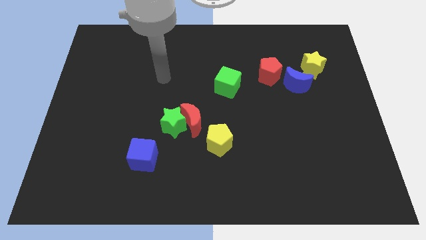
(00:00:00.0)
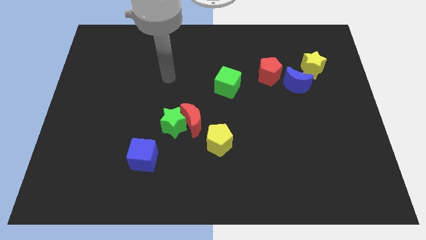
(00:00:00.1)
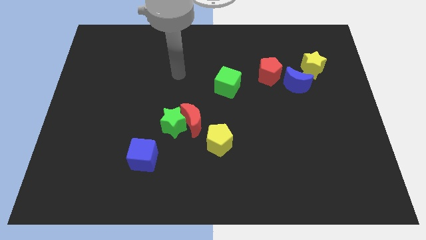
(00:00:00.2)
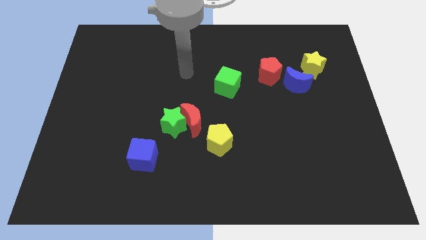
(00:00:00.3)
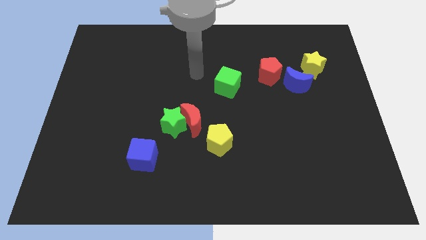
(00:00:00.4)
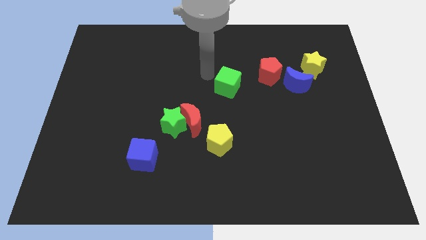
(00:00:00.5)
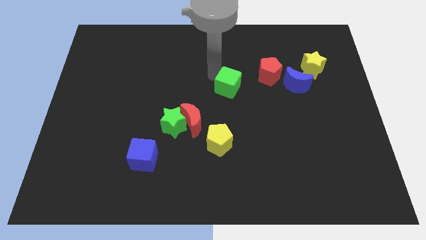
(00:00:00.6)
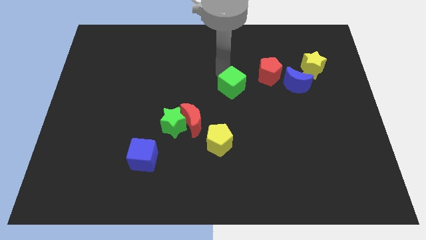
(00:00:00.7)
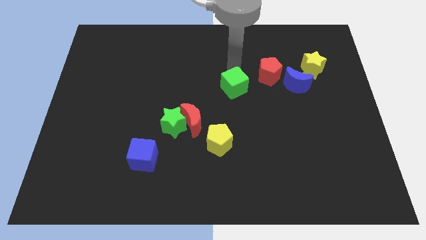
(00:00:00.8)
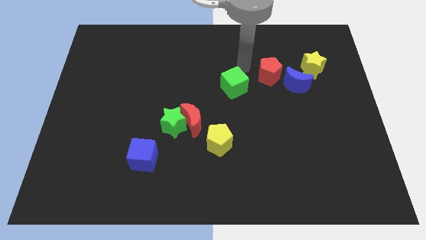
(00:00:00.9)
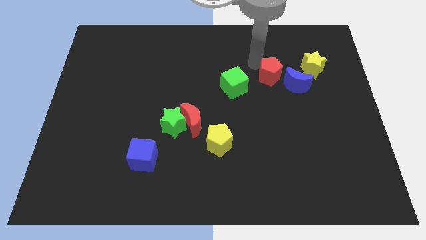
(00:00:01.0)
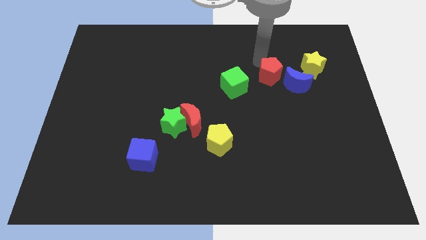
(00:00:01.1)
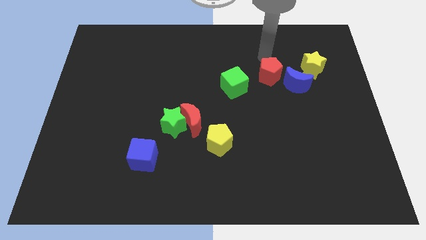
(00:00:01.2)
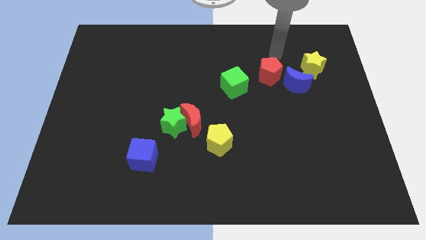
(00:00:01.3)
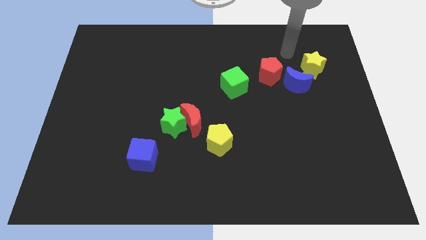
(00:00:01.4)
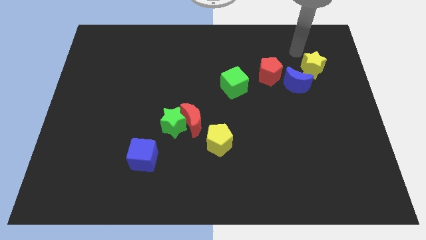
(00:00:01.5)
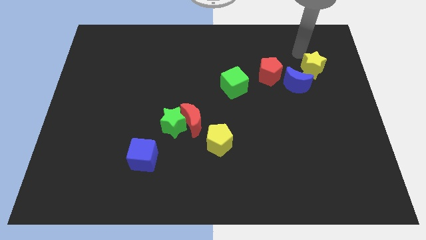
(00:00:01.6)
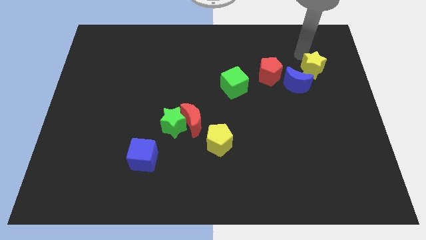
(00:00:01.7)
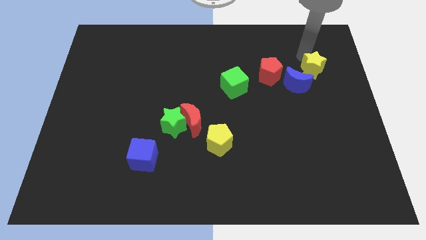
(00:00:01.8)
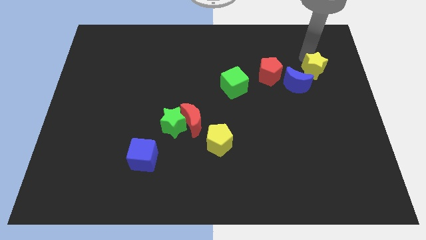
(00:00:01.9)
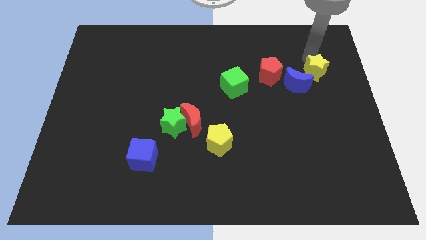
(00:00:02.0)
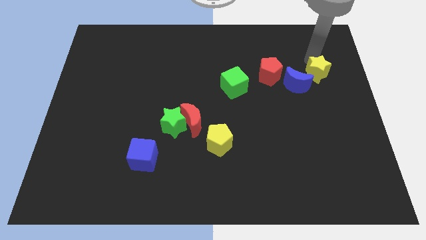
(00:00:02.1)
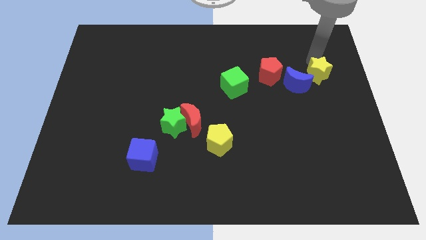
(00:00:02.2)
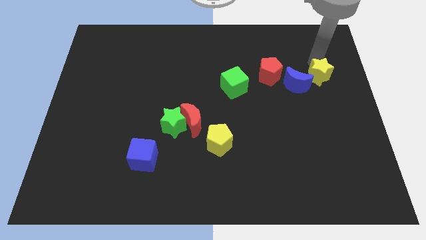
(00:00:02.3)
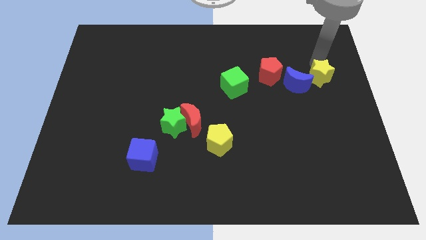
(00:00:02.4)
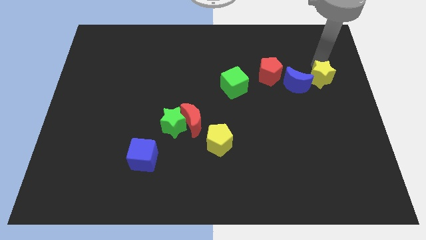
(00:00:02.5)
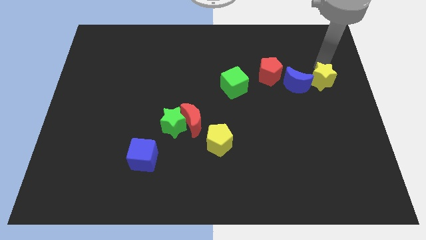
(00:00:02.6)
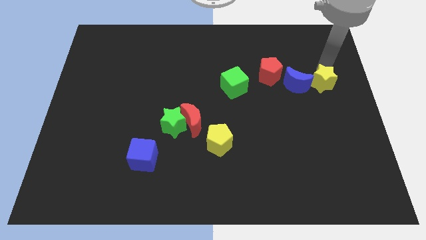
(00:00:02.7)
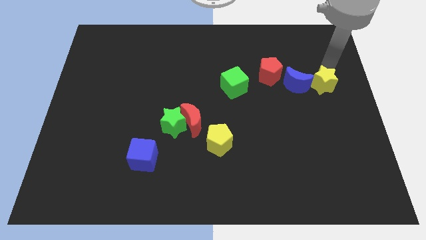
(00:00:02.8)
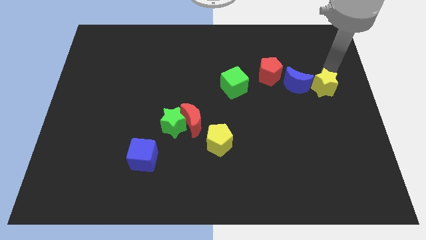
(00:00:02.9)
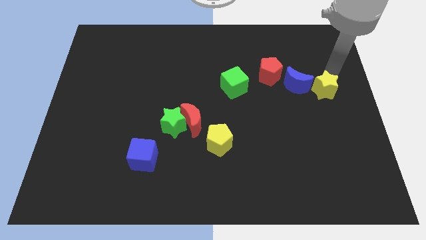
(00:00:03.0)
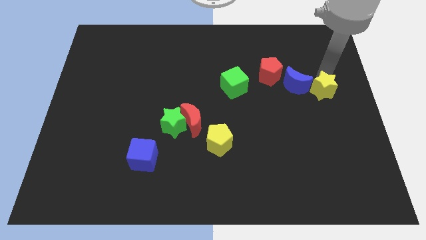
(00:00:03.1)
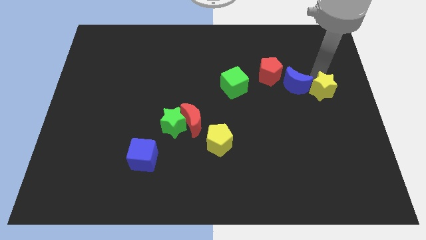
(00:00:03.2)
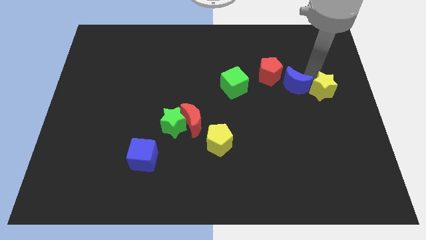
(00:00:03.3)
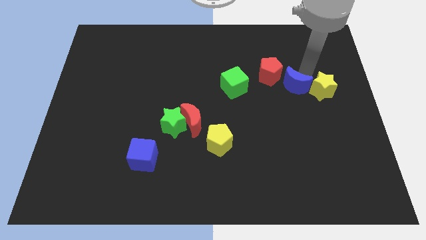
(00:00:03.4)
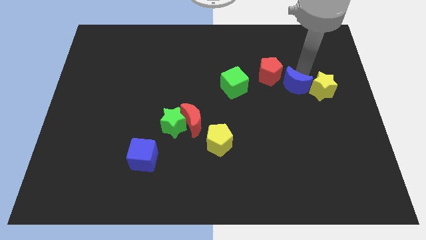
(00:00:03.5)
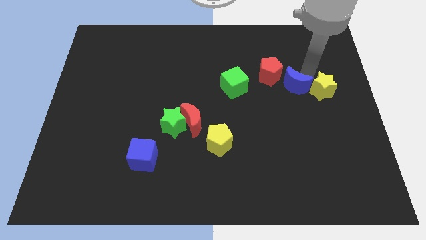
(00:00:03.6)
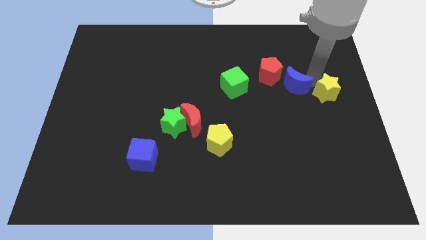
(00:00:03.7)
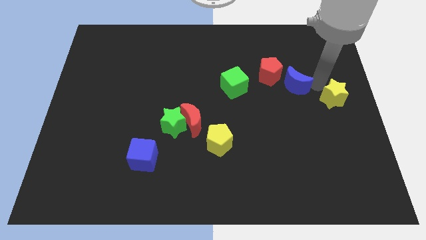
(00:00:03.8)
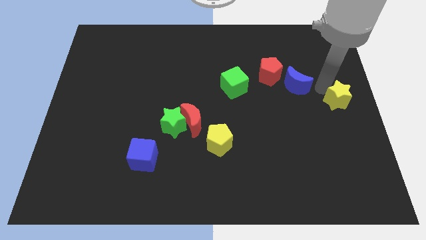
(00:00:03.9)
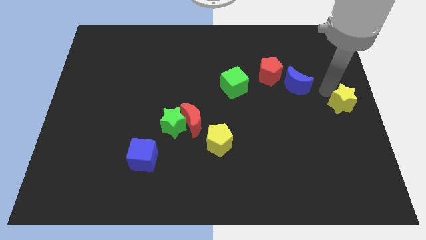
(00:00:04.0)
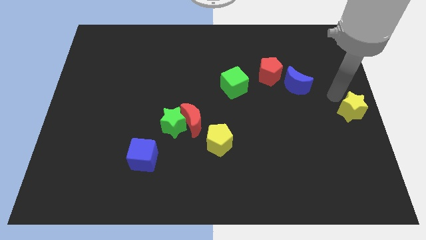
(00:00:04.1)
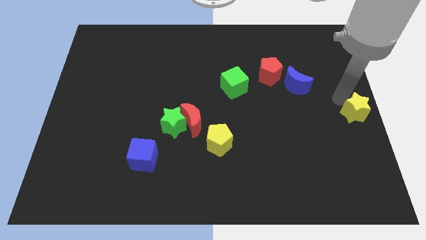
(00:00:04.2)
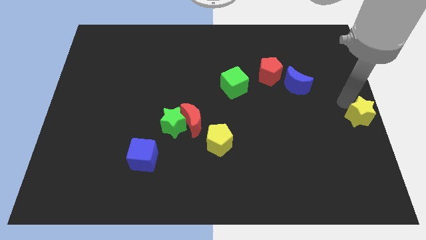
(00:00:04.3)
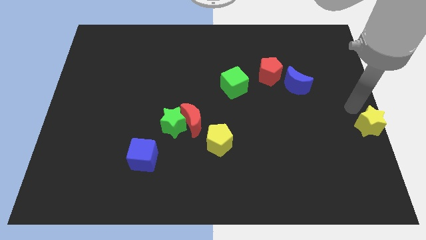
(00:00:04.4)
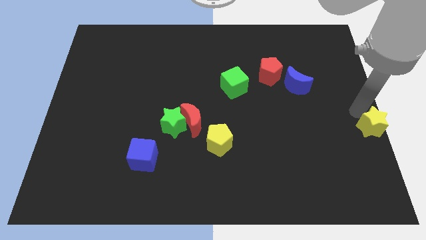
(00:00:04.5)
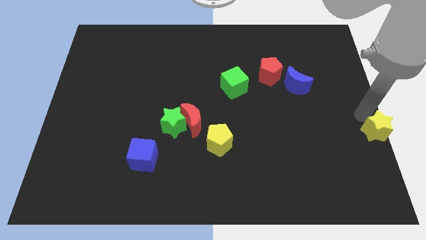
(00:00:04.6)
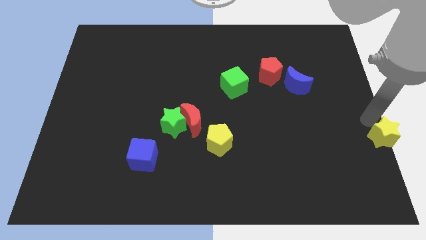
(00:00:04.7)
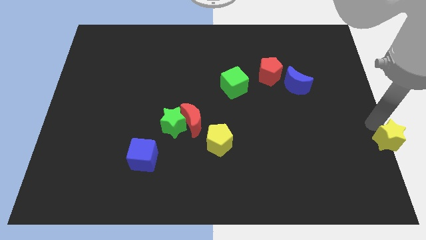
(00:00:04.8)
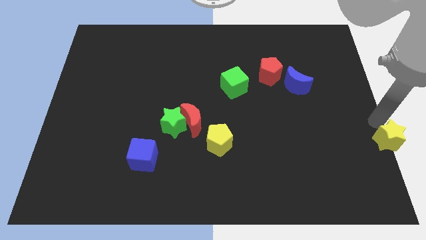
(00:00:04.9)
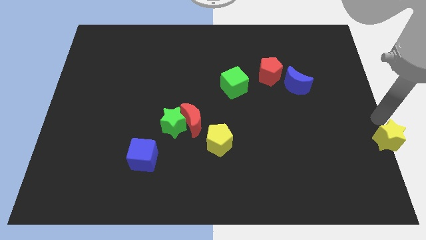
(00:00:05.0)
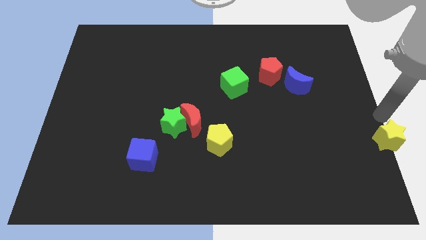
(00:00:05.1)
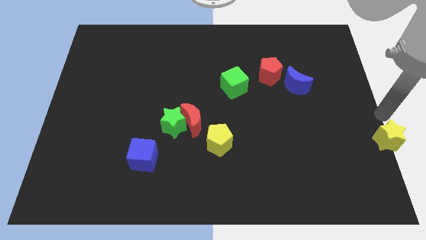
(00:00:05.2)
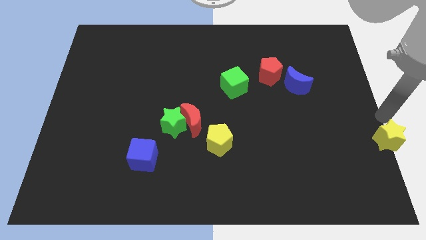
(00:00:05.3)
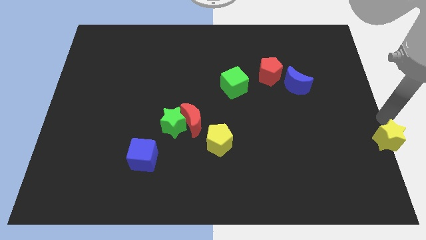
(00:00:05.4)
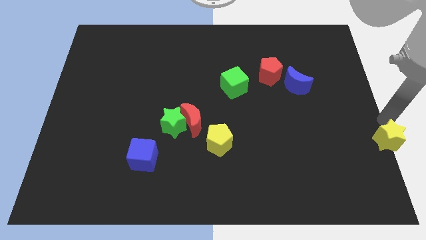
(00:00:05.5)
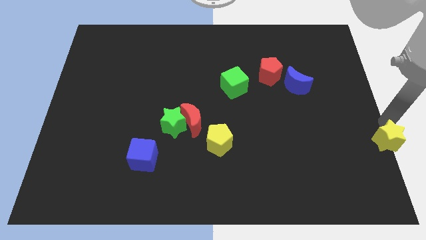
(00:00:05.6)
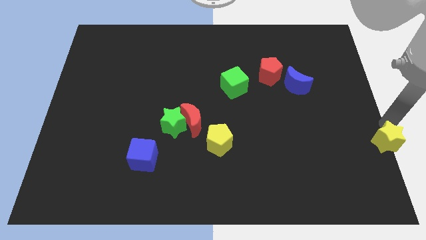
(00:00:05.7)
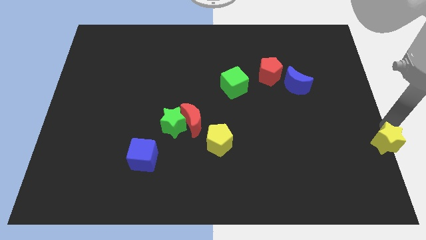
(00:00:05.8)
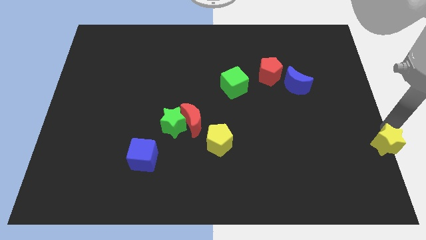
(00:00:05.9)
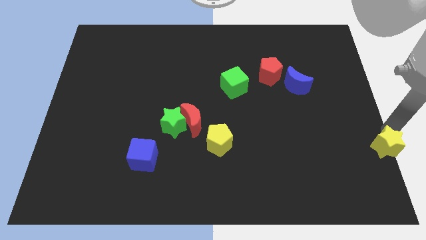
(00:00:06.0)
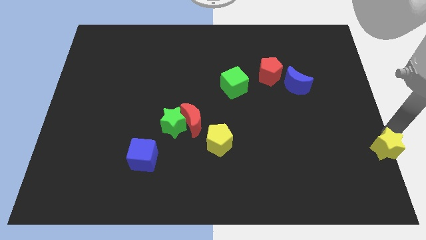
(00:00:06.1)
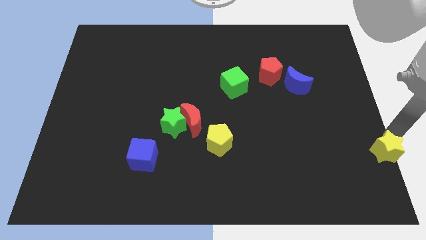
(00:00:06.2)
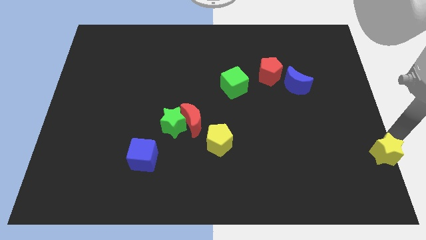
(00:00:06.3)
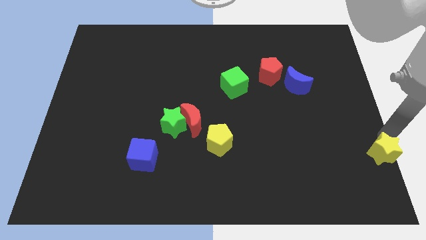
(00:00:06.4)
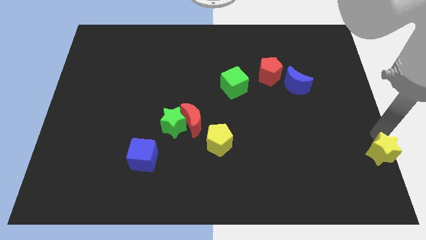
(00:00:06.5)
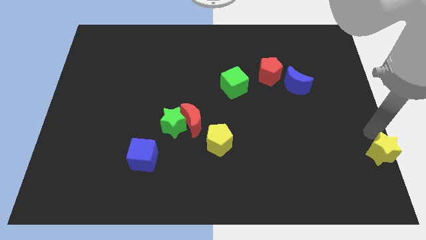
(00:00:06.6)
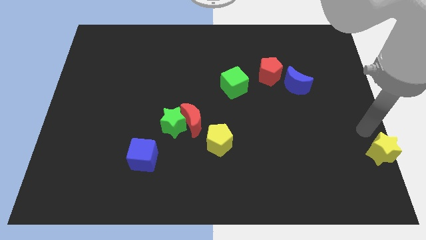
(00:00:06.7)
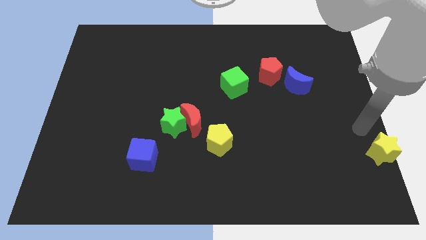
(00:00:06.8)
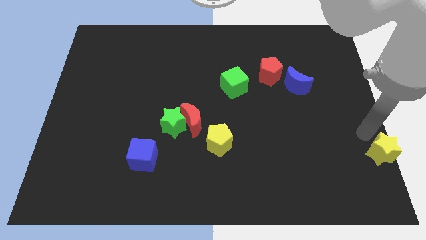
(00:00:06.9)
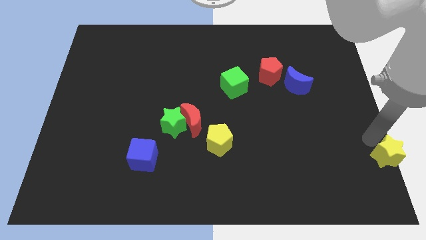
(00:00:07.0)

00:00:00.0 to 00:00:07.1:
slide the yellow star to the bottom right
